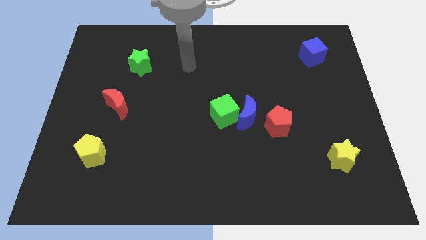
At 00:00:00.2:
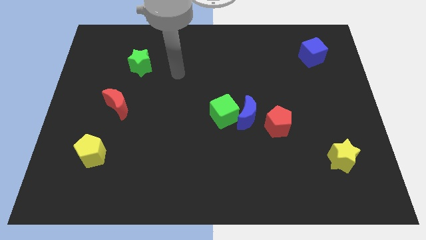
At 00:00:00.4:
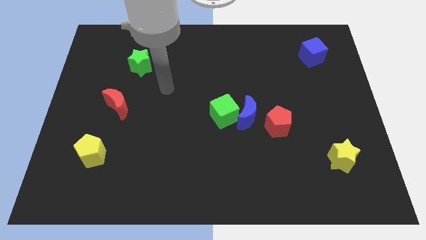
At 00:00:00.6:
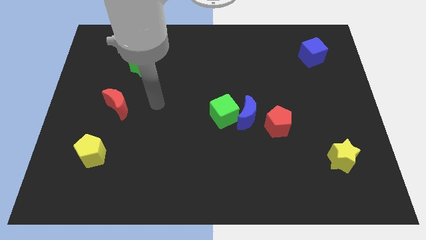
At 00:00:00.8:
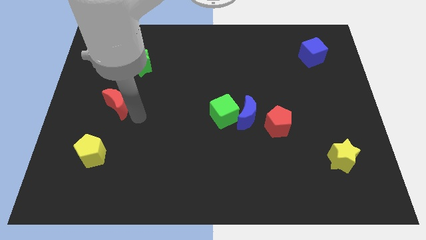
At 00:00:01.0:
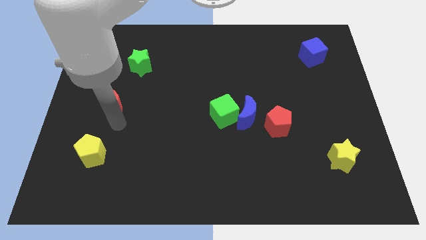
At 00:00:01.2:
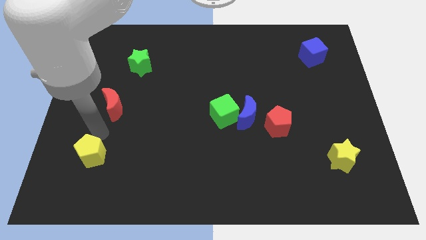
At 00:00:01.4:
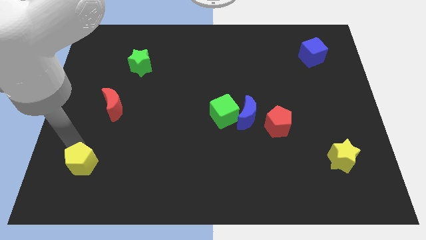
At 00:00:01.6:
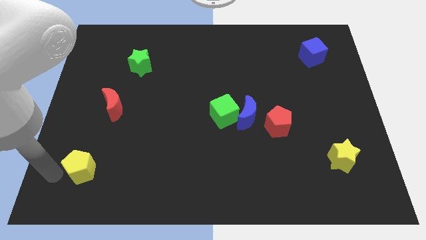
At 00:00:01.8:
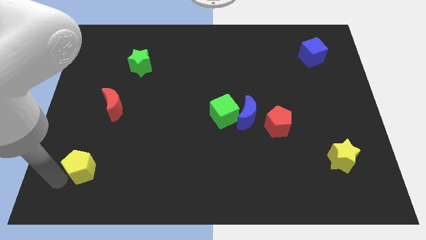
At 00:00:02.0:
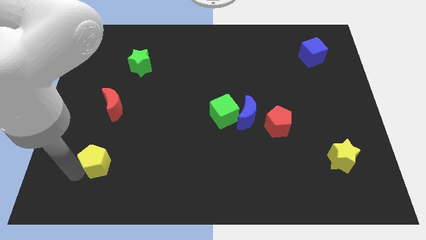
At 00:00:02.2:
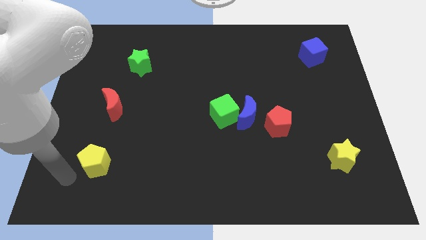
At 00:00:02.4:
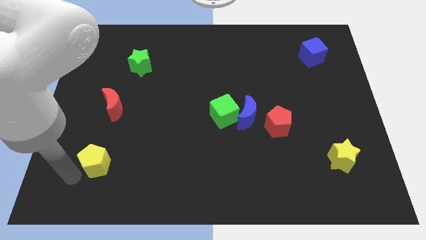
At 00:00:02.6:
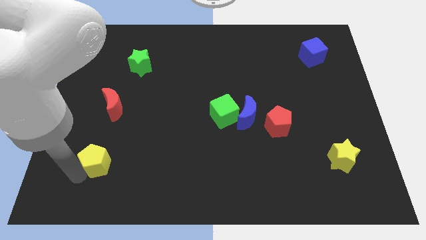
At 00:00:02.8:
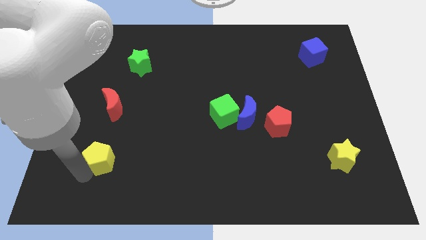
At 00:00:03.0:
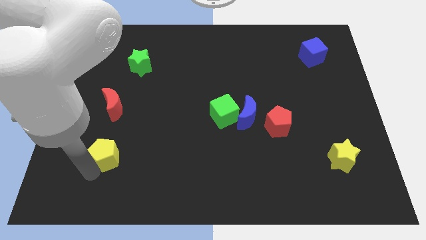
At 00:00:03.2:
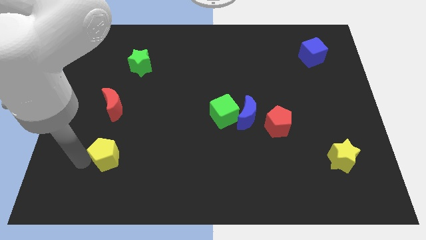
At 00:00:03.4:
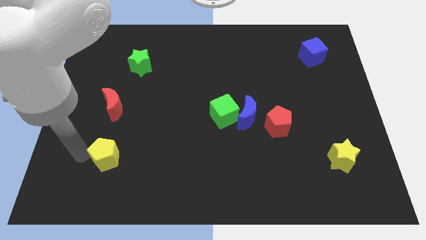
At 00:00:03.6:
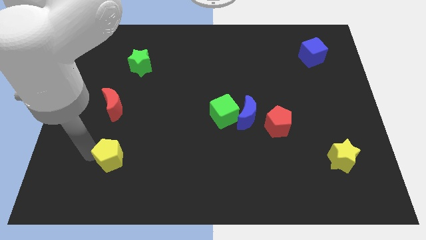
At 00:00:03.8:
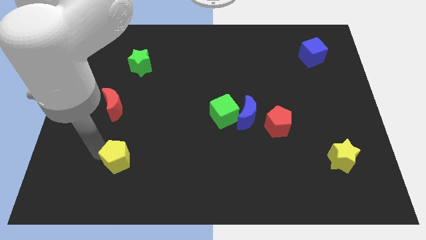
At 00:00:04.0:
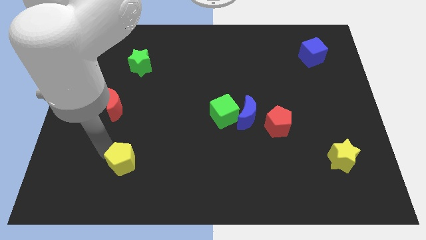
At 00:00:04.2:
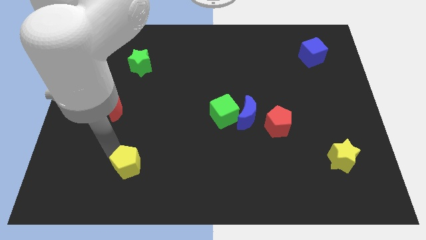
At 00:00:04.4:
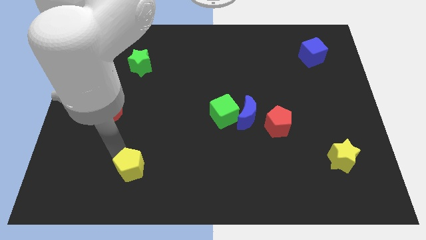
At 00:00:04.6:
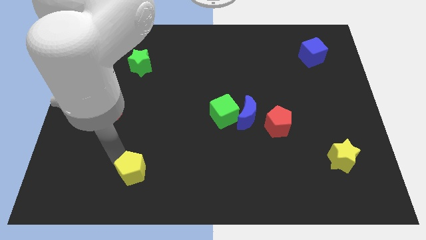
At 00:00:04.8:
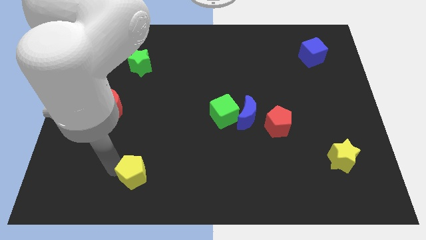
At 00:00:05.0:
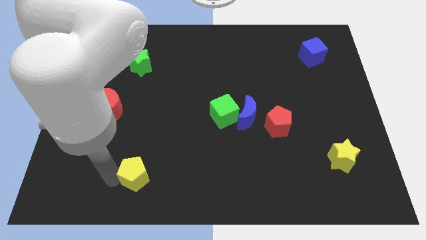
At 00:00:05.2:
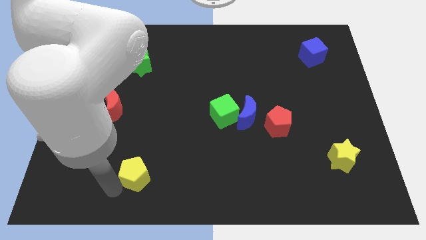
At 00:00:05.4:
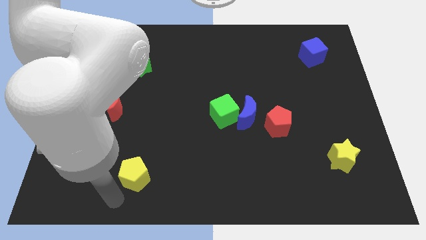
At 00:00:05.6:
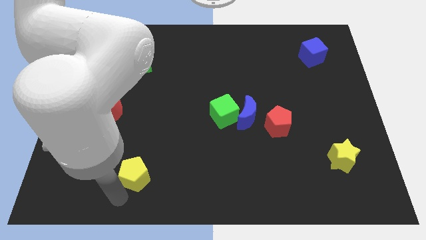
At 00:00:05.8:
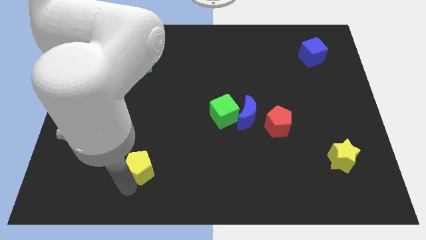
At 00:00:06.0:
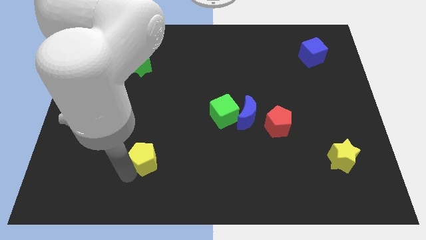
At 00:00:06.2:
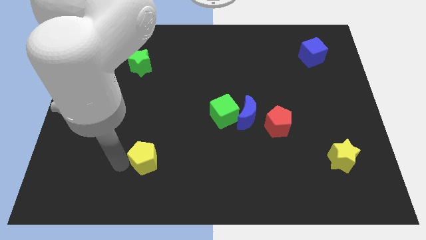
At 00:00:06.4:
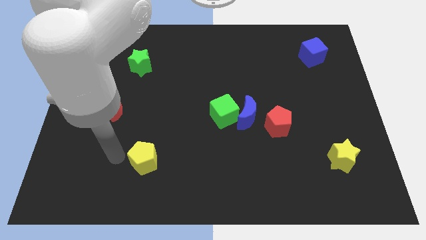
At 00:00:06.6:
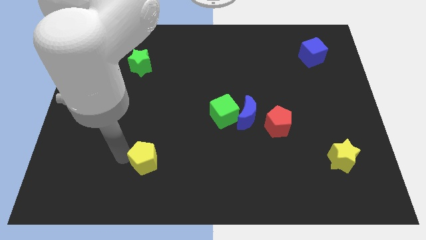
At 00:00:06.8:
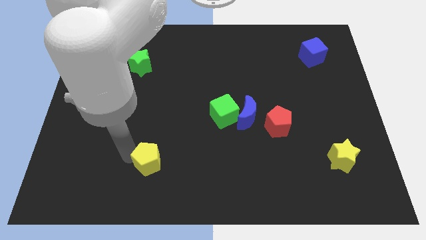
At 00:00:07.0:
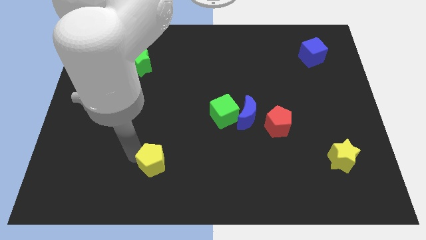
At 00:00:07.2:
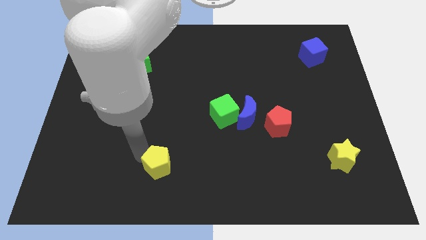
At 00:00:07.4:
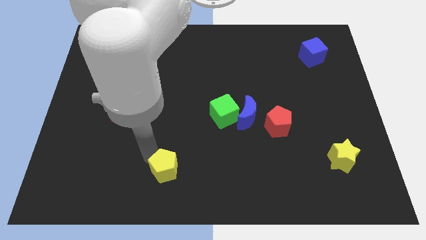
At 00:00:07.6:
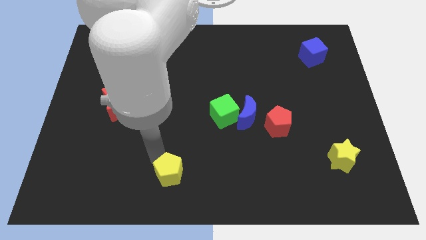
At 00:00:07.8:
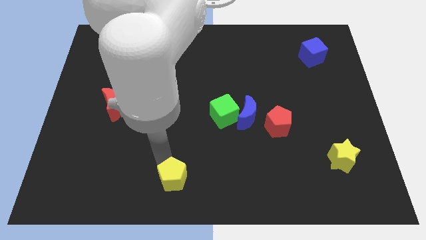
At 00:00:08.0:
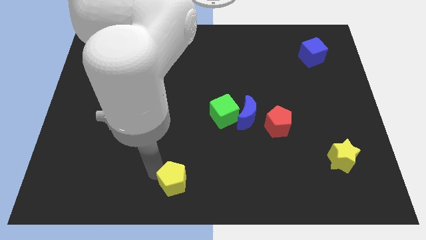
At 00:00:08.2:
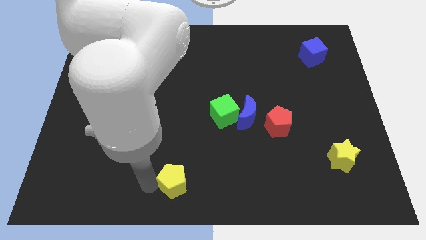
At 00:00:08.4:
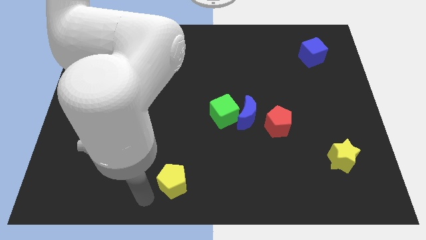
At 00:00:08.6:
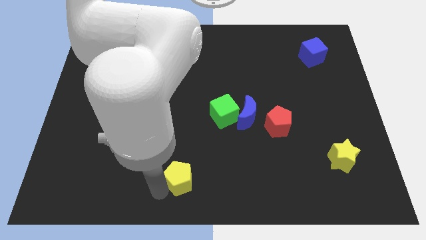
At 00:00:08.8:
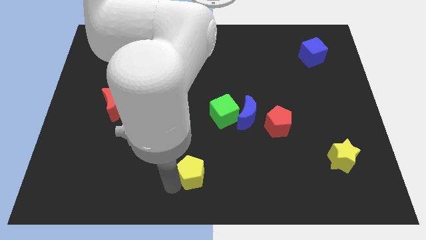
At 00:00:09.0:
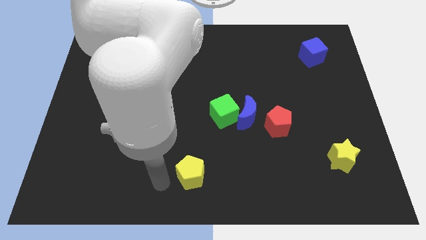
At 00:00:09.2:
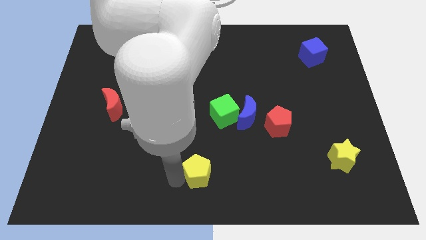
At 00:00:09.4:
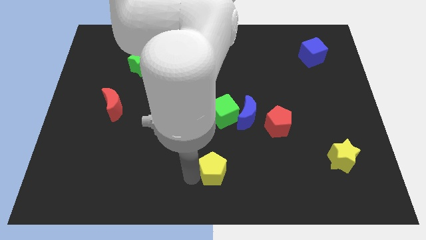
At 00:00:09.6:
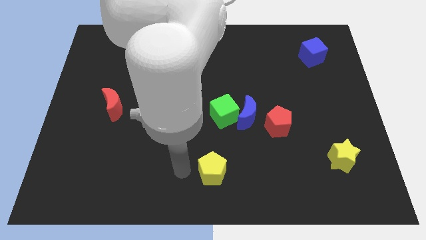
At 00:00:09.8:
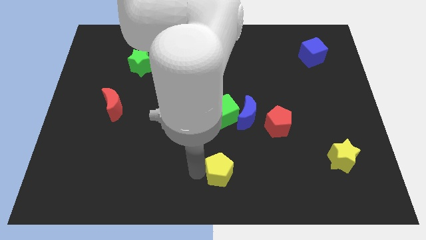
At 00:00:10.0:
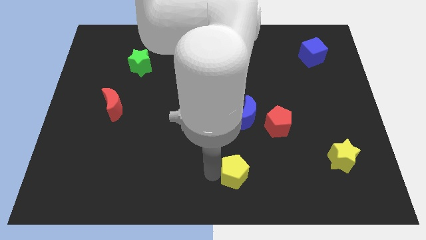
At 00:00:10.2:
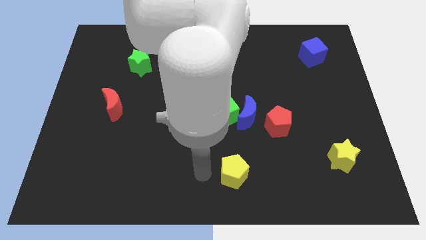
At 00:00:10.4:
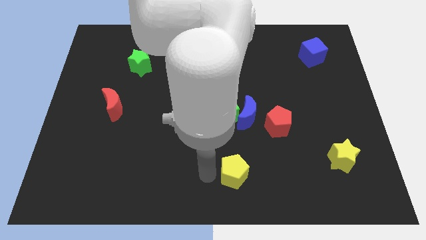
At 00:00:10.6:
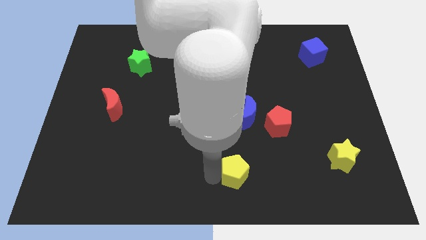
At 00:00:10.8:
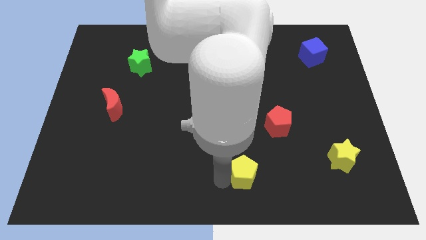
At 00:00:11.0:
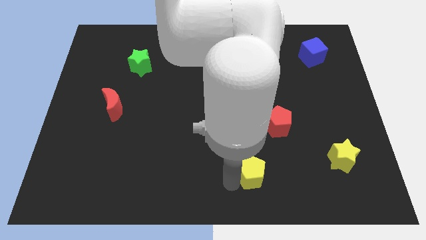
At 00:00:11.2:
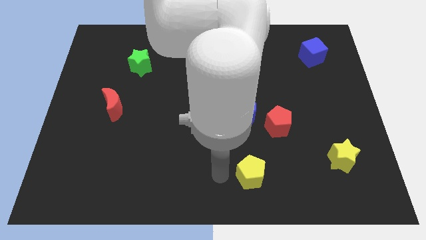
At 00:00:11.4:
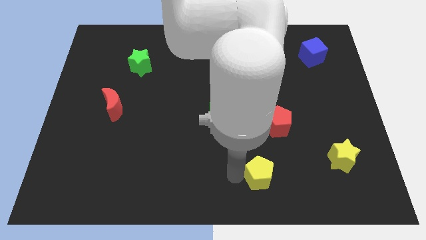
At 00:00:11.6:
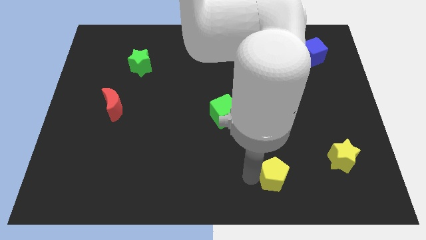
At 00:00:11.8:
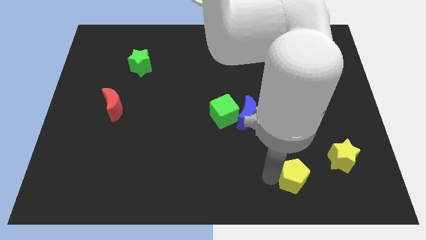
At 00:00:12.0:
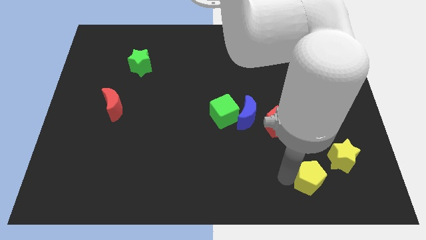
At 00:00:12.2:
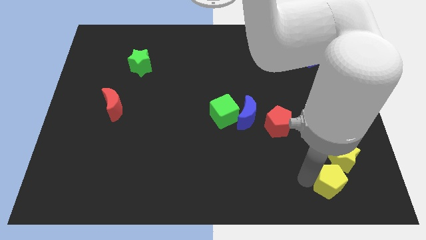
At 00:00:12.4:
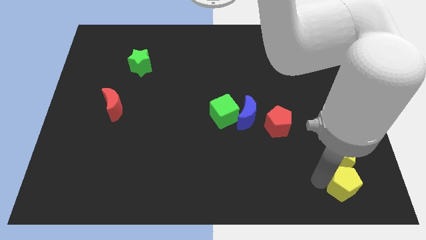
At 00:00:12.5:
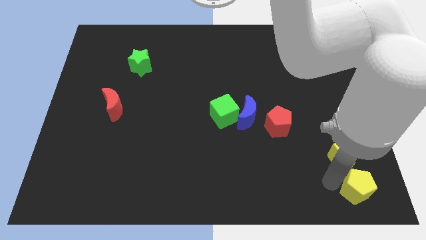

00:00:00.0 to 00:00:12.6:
push the yellow pentagon to the bottom right corner
